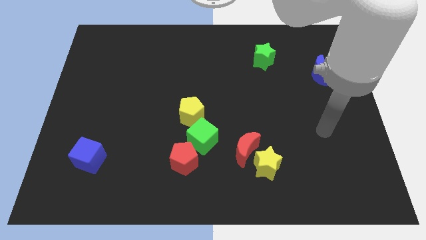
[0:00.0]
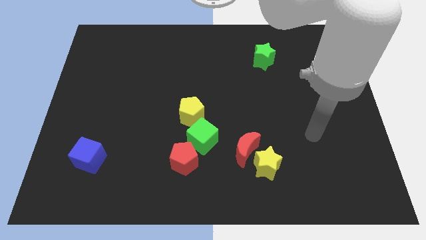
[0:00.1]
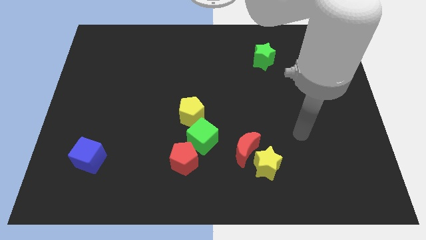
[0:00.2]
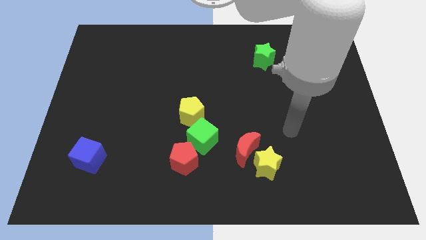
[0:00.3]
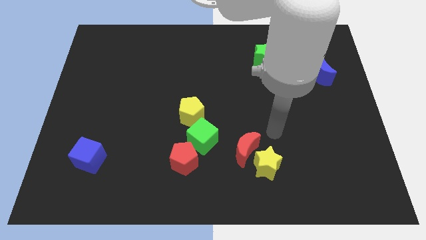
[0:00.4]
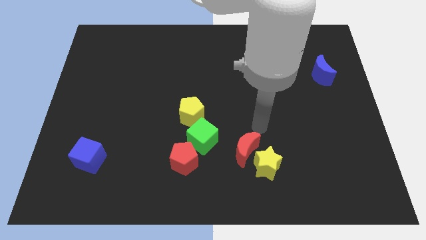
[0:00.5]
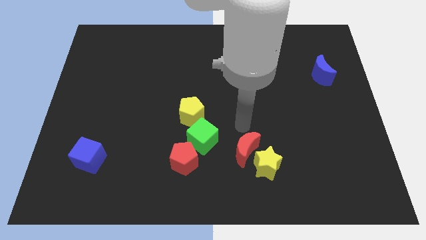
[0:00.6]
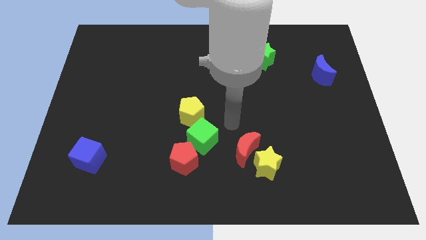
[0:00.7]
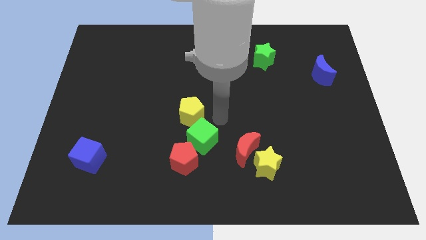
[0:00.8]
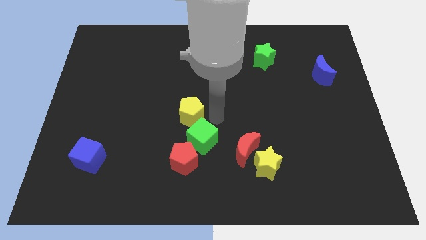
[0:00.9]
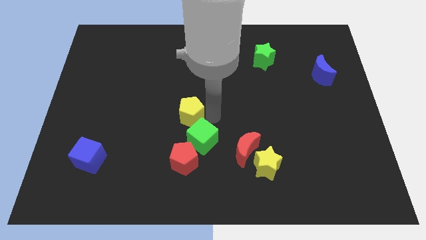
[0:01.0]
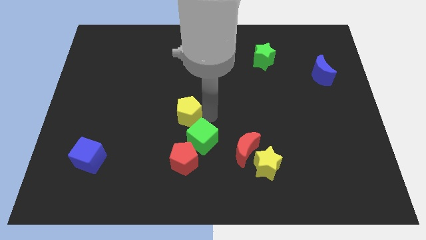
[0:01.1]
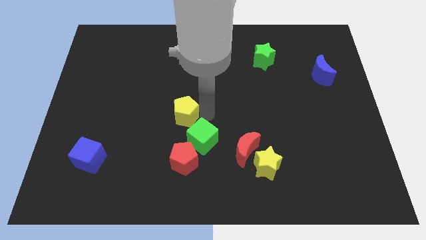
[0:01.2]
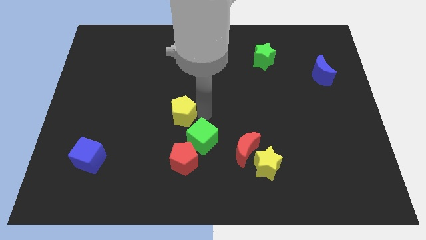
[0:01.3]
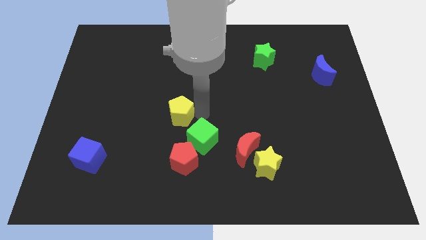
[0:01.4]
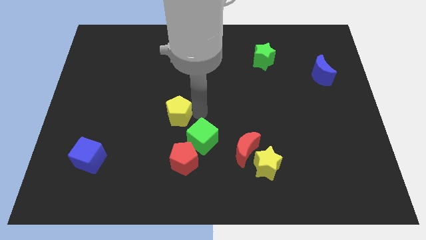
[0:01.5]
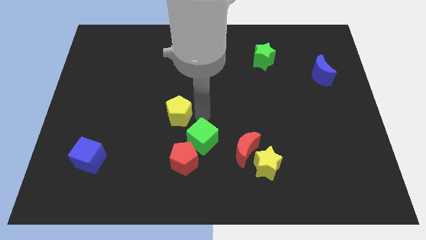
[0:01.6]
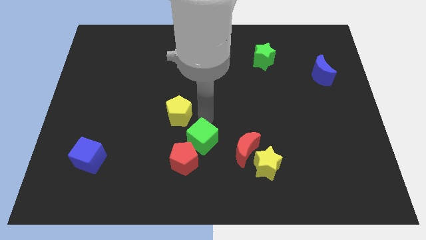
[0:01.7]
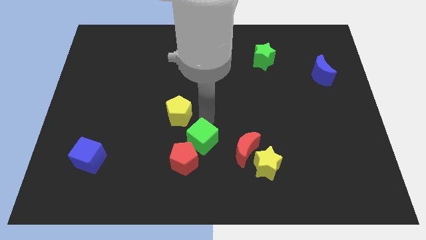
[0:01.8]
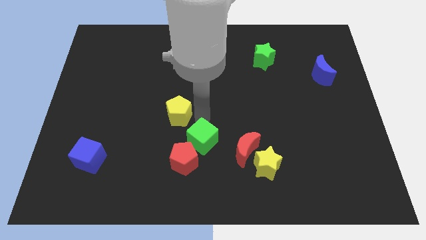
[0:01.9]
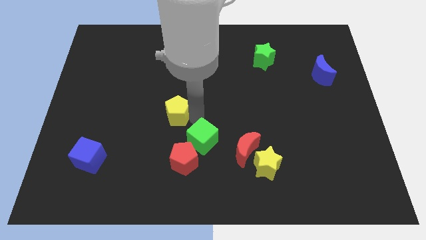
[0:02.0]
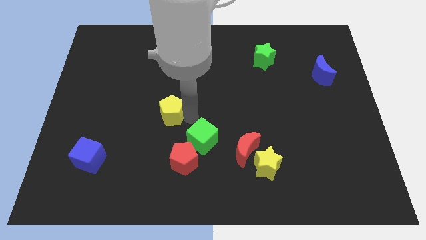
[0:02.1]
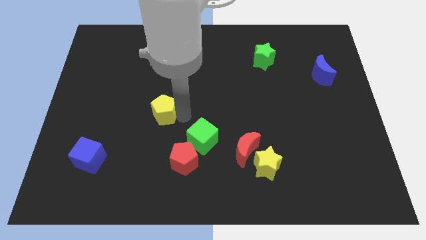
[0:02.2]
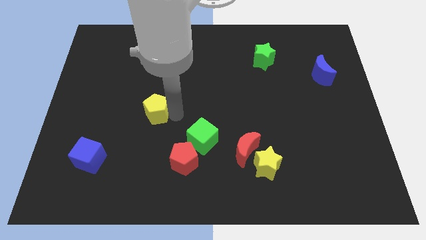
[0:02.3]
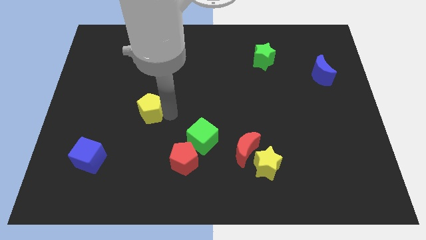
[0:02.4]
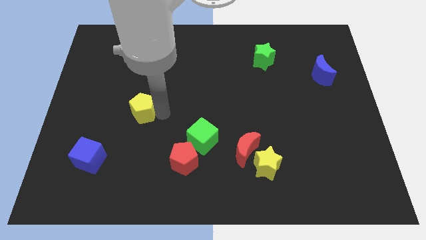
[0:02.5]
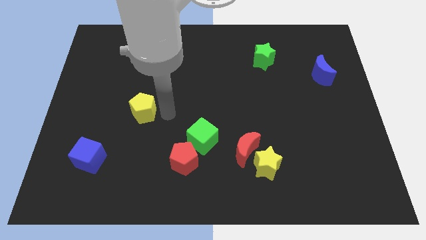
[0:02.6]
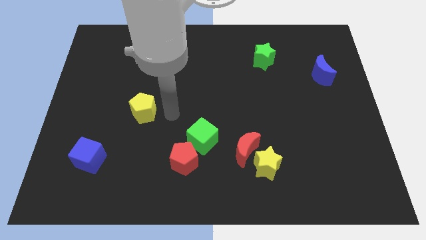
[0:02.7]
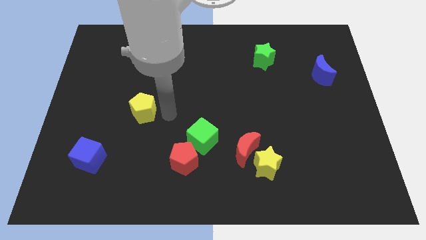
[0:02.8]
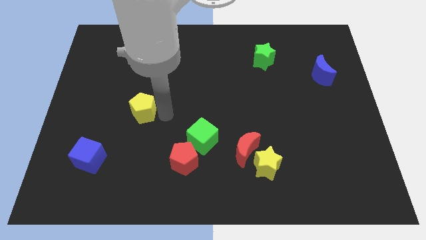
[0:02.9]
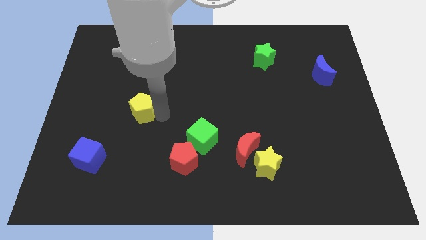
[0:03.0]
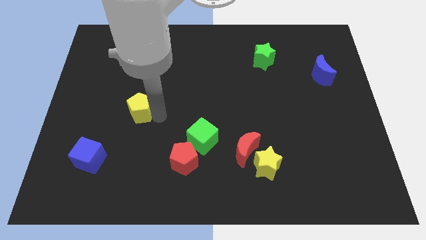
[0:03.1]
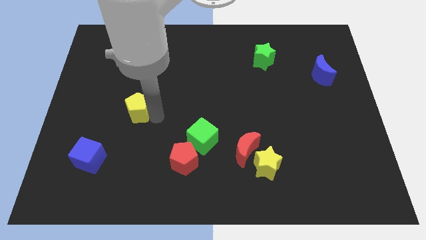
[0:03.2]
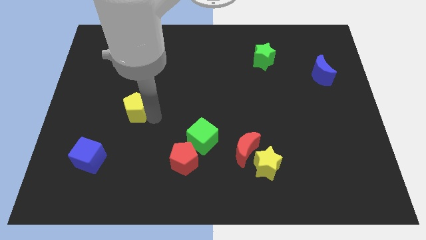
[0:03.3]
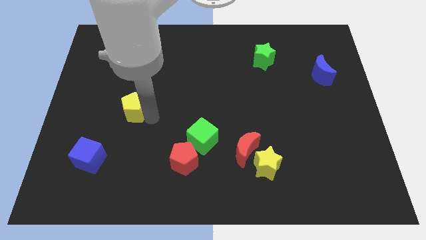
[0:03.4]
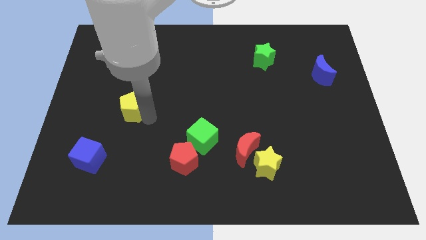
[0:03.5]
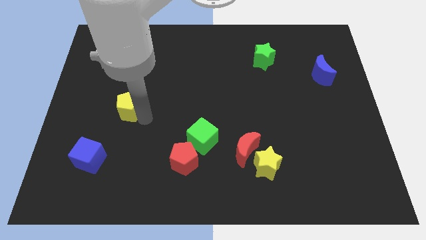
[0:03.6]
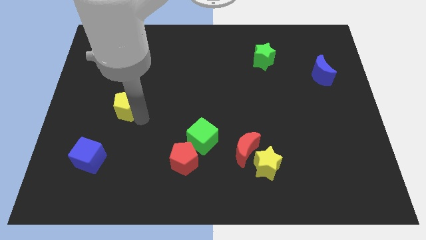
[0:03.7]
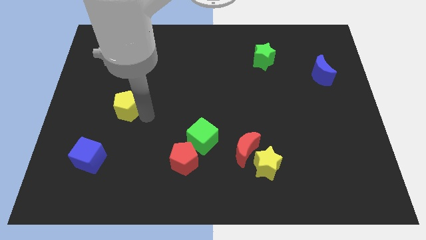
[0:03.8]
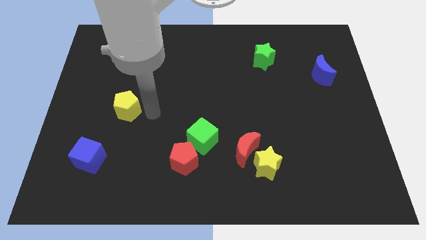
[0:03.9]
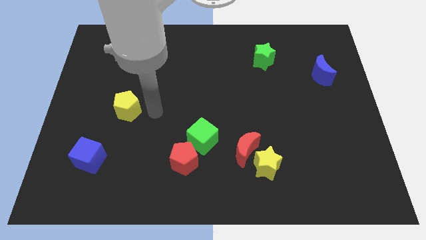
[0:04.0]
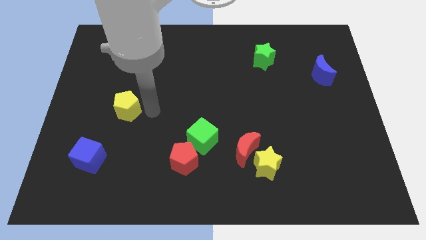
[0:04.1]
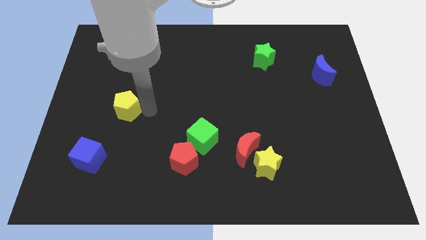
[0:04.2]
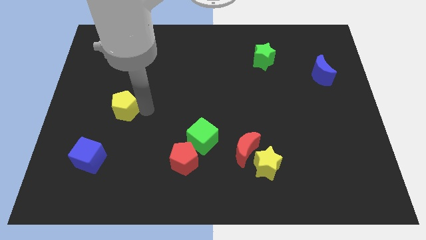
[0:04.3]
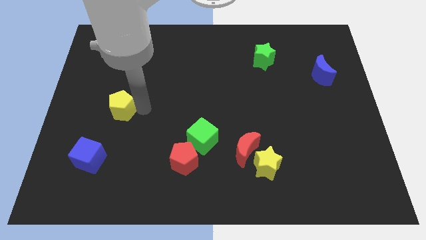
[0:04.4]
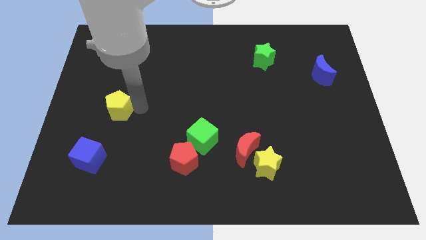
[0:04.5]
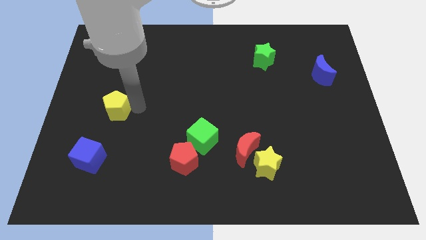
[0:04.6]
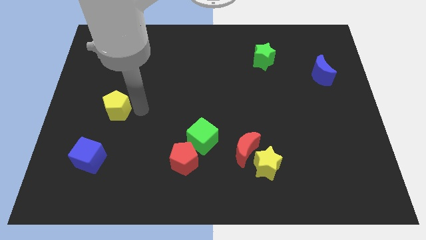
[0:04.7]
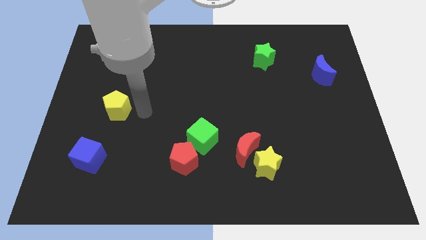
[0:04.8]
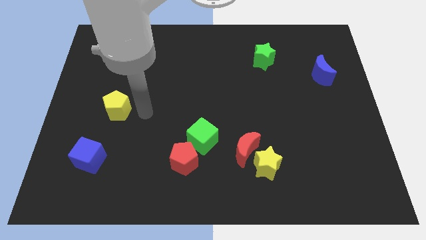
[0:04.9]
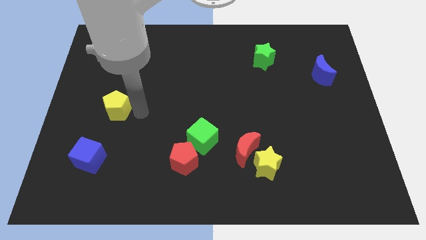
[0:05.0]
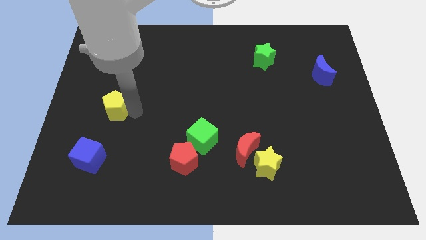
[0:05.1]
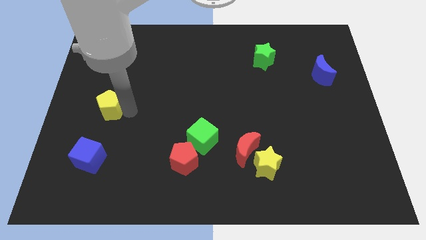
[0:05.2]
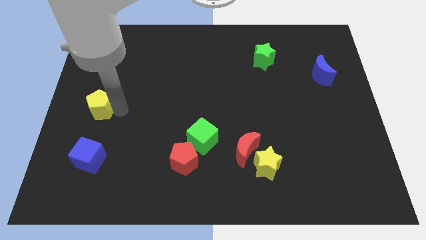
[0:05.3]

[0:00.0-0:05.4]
put the yellow pentagon to the left side

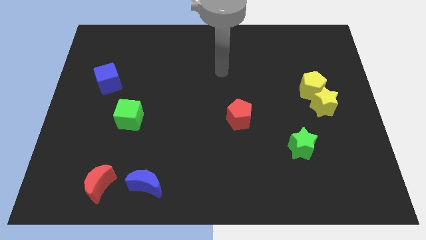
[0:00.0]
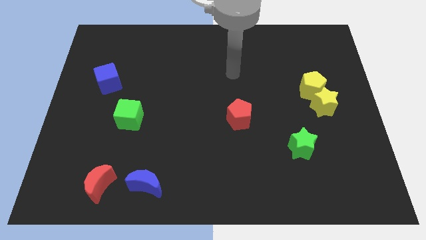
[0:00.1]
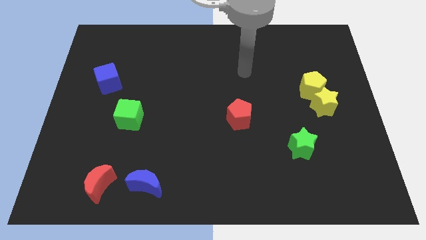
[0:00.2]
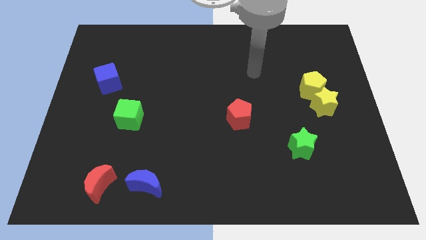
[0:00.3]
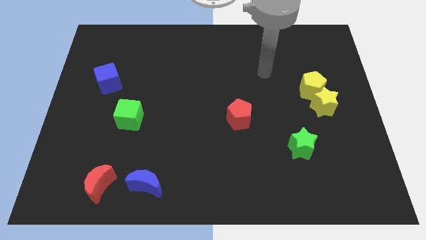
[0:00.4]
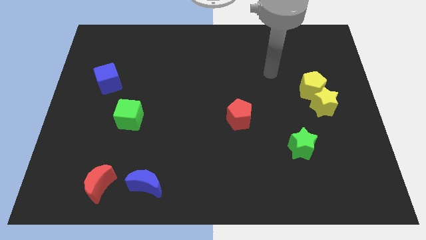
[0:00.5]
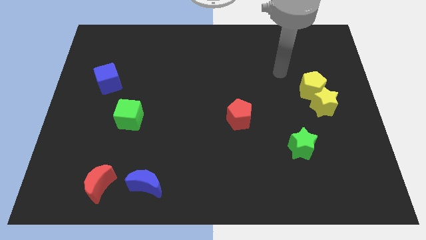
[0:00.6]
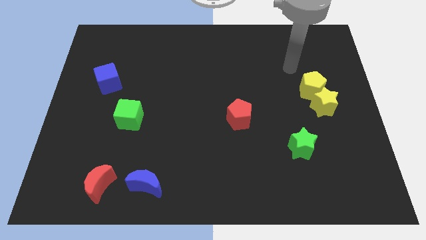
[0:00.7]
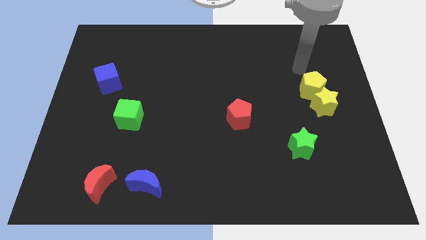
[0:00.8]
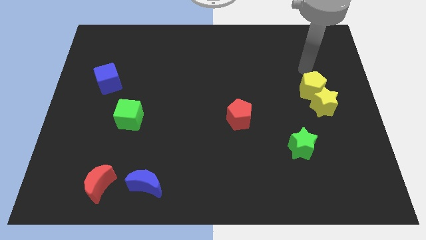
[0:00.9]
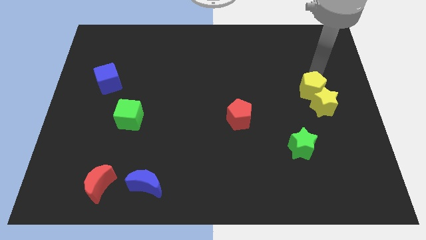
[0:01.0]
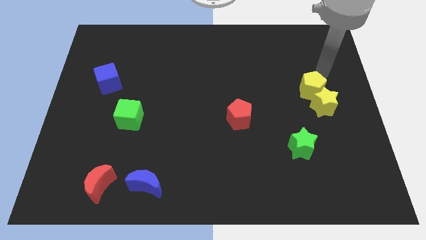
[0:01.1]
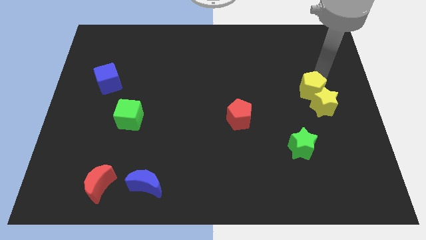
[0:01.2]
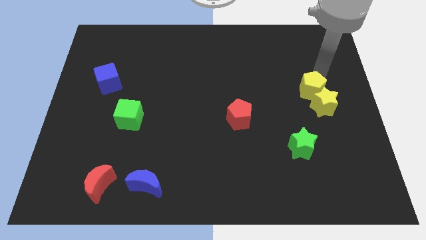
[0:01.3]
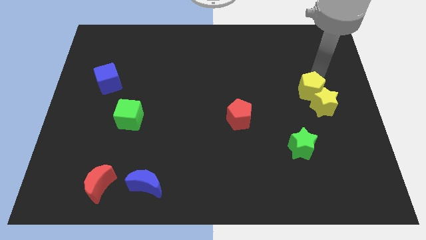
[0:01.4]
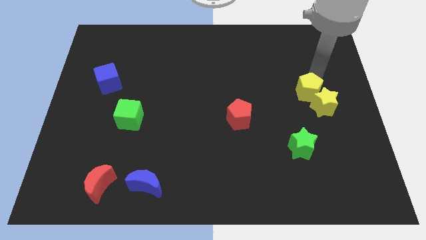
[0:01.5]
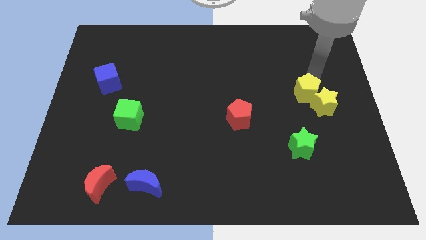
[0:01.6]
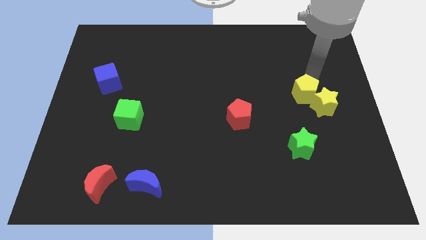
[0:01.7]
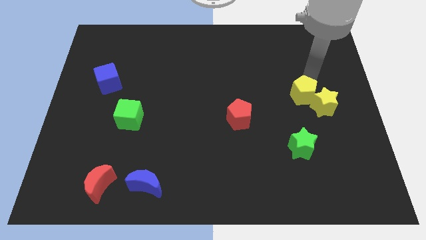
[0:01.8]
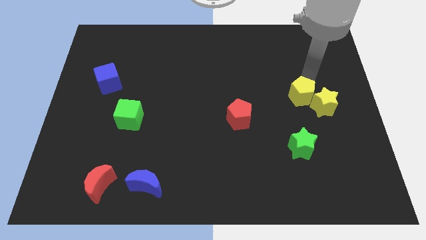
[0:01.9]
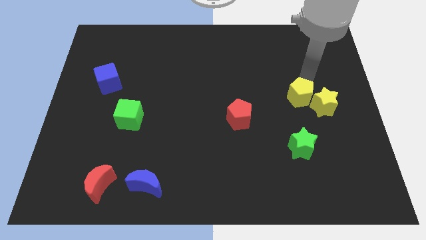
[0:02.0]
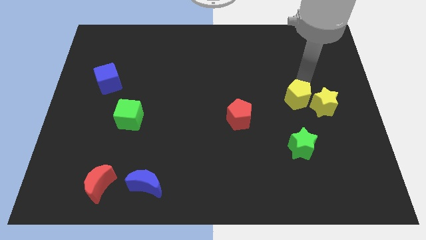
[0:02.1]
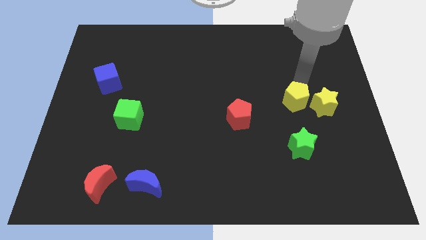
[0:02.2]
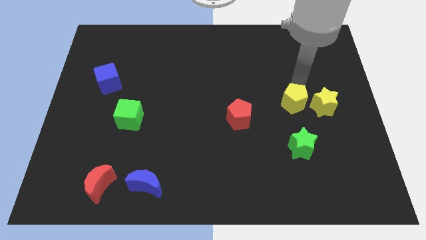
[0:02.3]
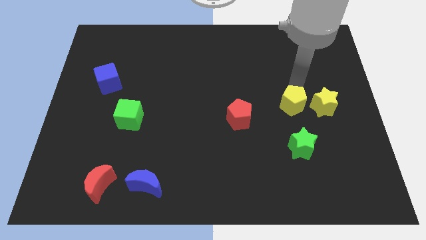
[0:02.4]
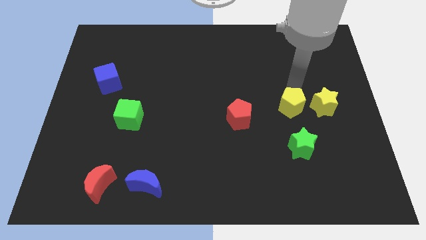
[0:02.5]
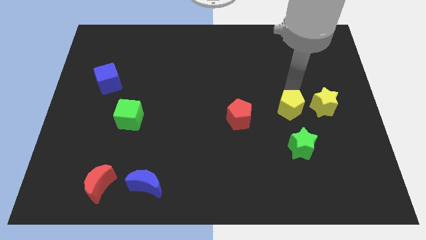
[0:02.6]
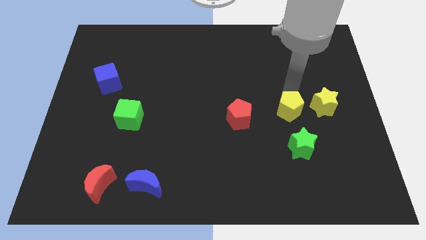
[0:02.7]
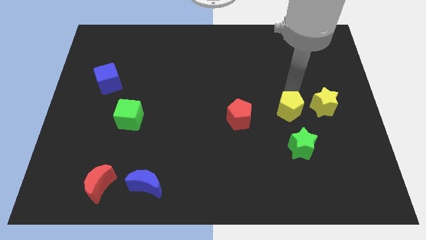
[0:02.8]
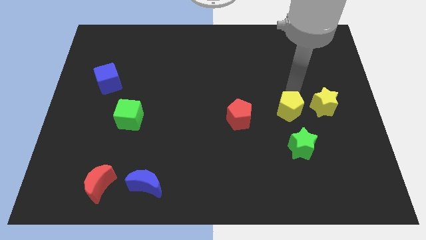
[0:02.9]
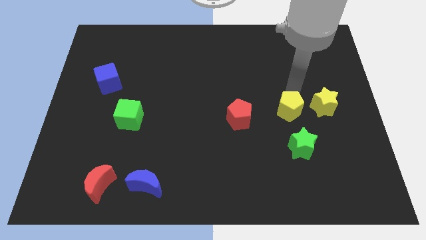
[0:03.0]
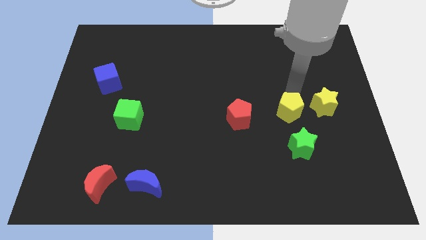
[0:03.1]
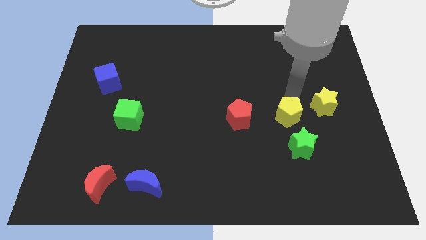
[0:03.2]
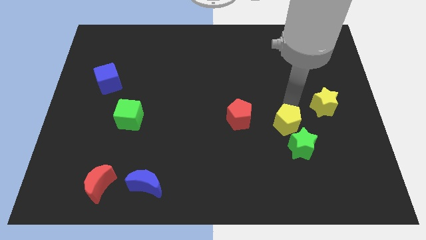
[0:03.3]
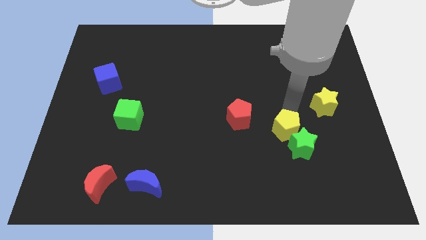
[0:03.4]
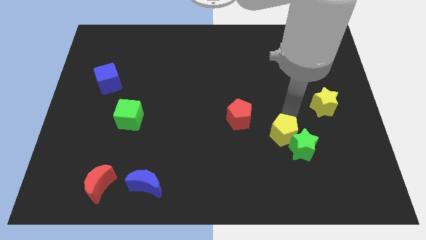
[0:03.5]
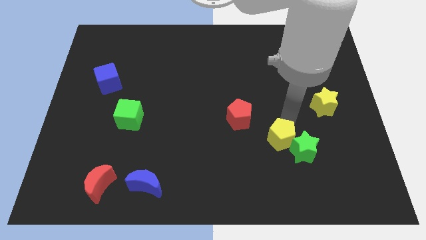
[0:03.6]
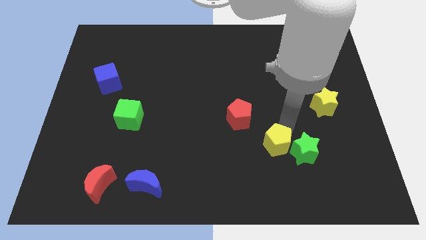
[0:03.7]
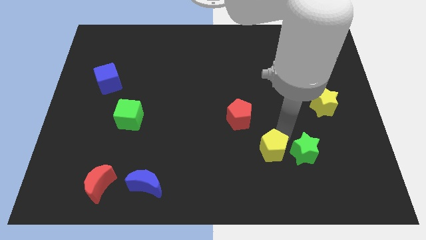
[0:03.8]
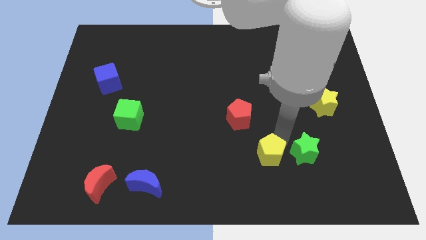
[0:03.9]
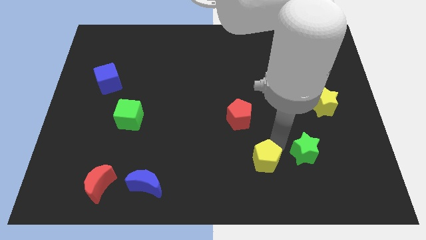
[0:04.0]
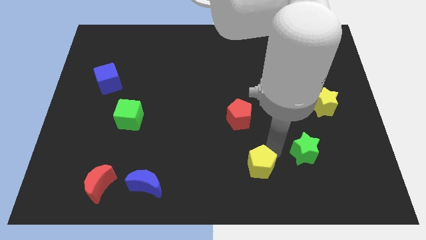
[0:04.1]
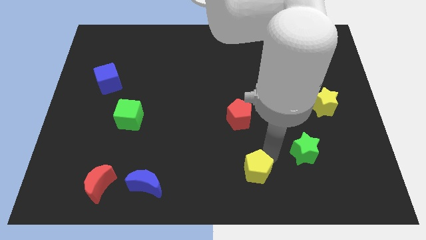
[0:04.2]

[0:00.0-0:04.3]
move the yellow pentagon to the bottom side
